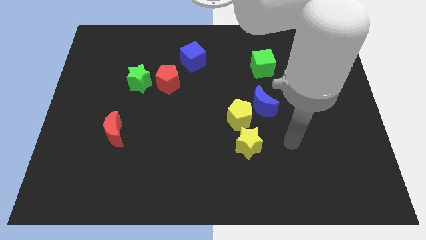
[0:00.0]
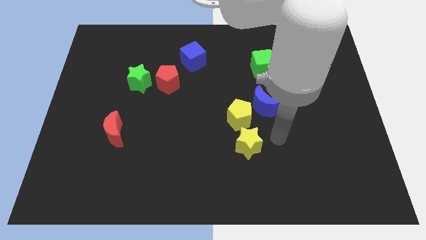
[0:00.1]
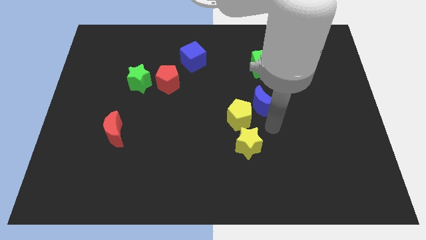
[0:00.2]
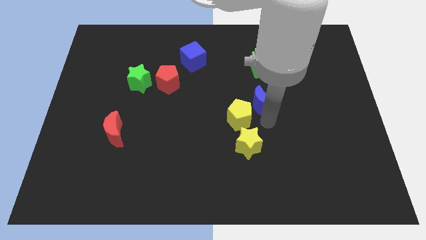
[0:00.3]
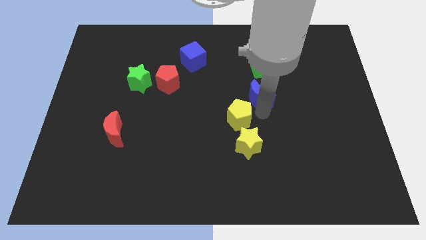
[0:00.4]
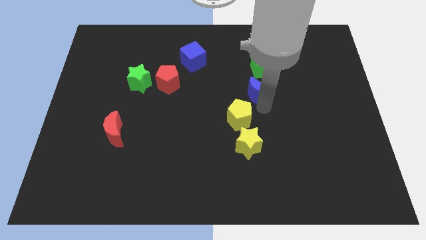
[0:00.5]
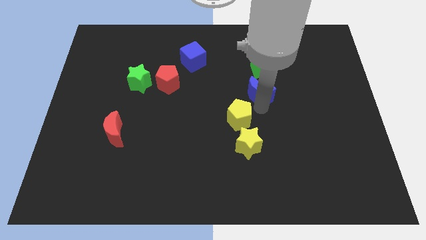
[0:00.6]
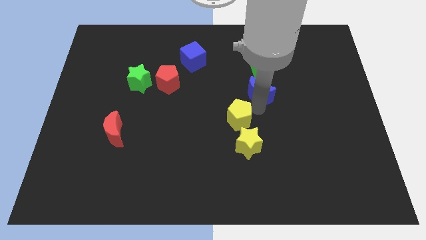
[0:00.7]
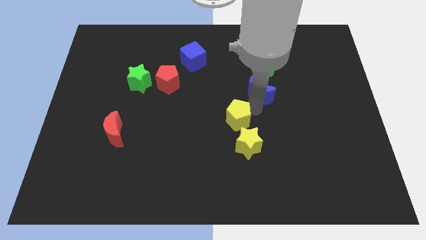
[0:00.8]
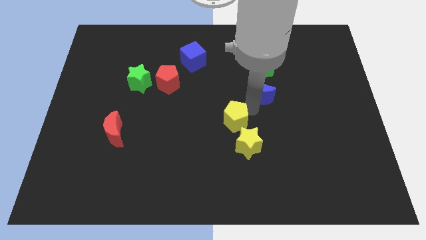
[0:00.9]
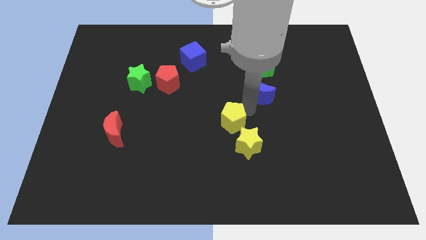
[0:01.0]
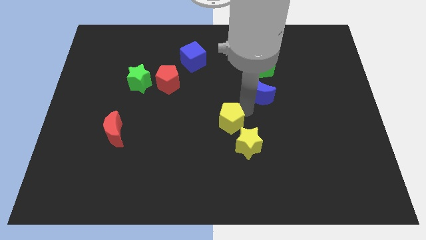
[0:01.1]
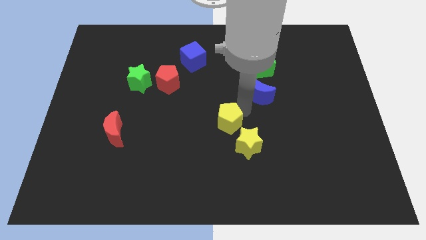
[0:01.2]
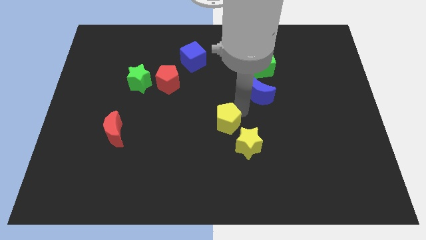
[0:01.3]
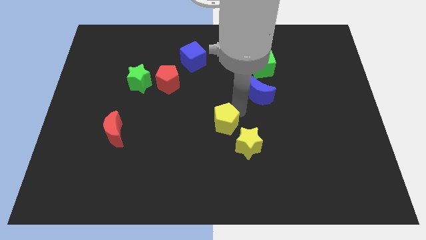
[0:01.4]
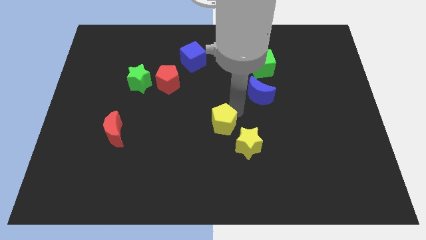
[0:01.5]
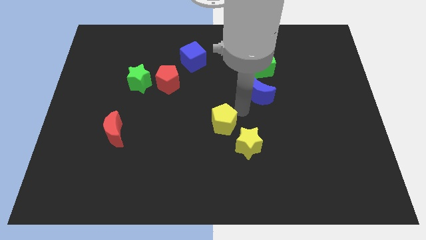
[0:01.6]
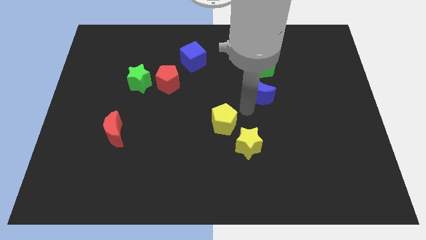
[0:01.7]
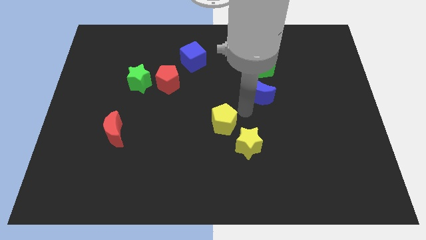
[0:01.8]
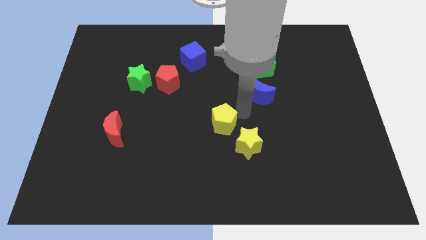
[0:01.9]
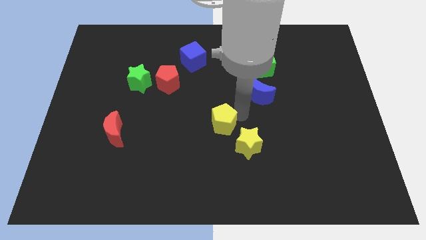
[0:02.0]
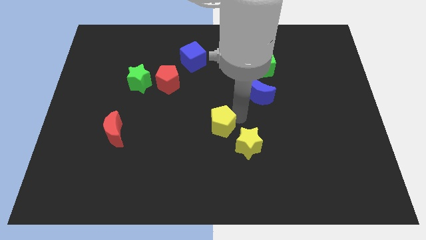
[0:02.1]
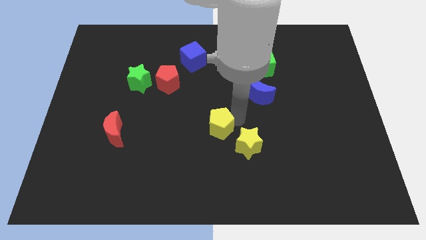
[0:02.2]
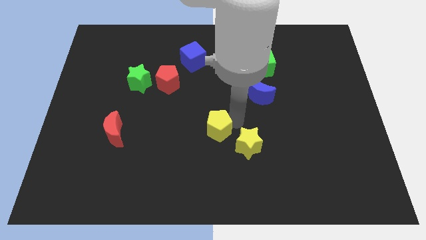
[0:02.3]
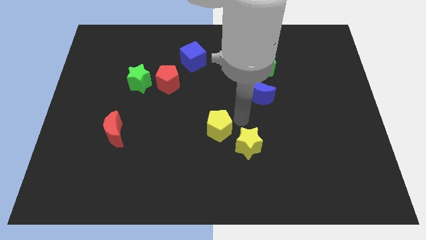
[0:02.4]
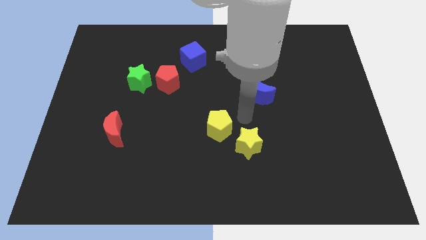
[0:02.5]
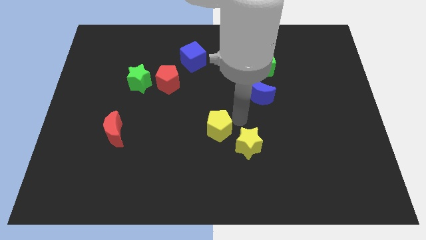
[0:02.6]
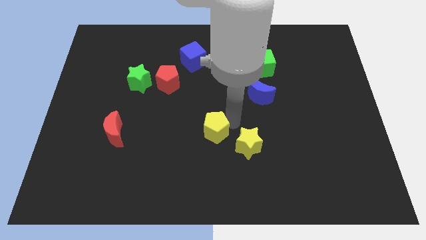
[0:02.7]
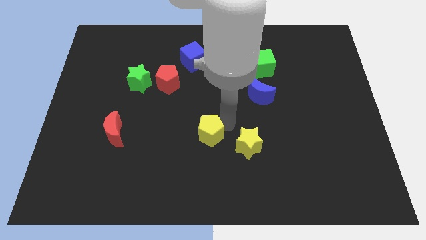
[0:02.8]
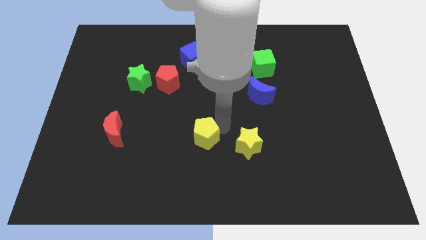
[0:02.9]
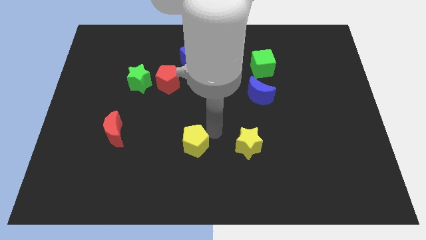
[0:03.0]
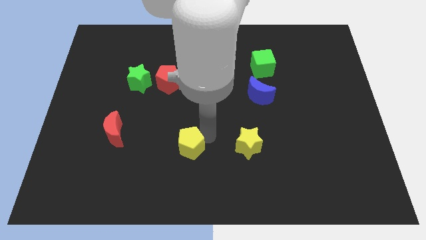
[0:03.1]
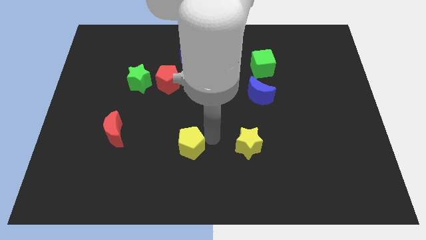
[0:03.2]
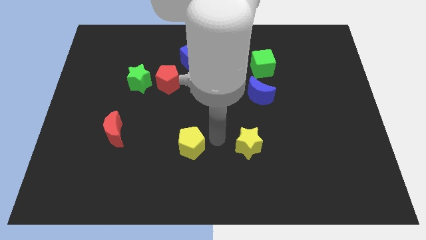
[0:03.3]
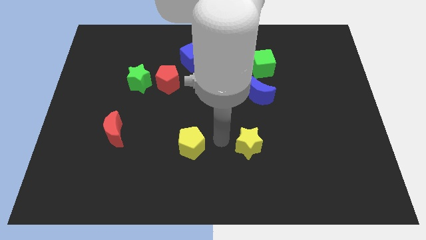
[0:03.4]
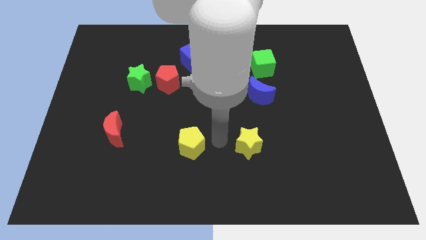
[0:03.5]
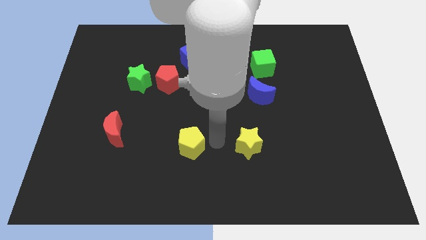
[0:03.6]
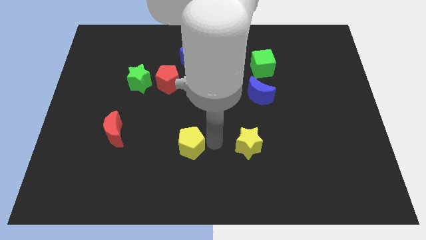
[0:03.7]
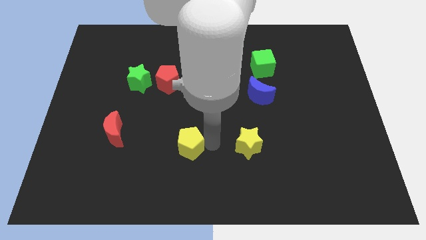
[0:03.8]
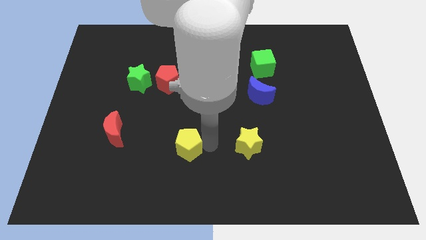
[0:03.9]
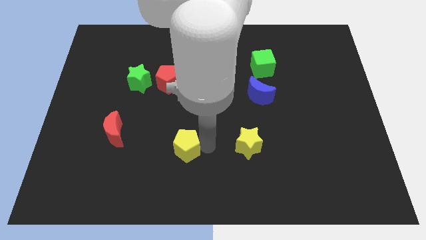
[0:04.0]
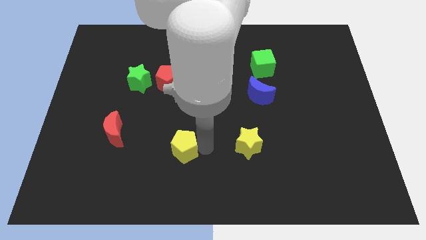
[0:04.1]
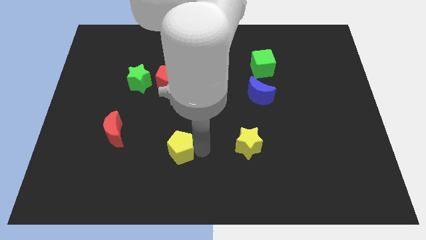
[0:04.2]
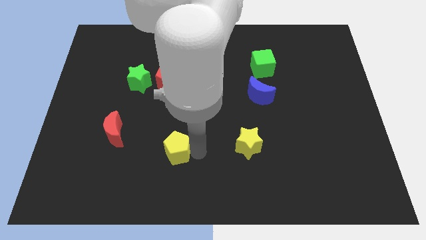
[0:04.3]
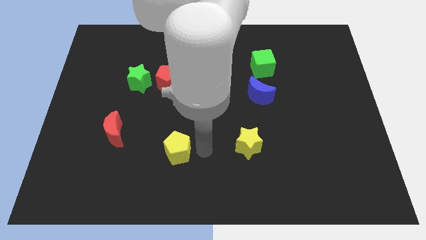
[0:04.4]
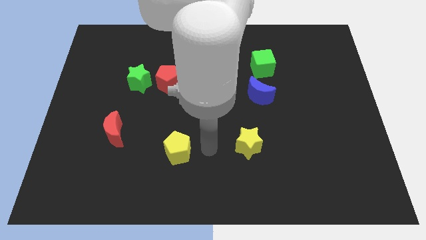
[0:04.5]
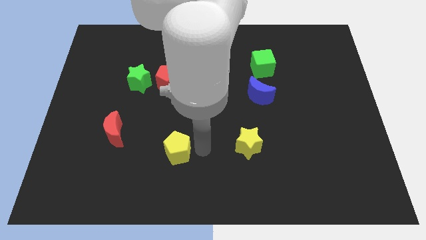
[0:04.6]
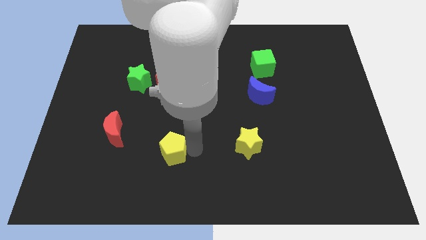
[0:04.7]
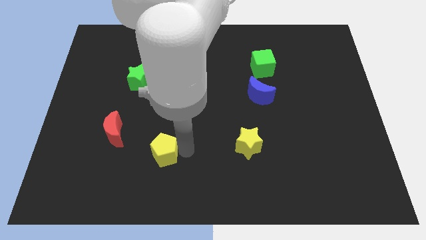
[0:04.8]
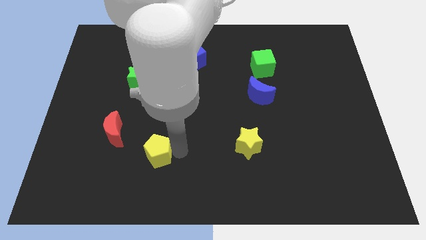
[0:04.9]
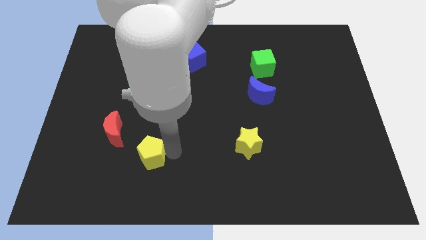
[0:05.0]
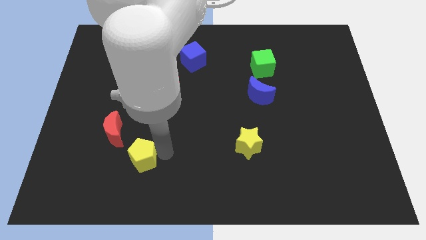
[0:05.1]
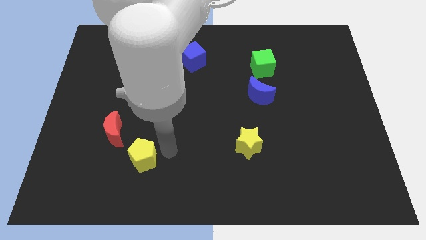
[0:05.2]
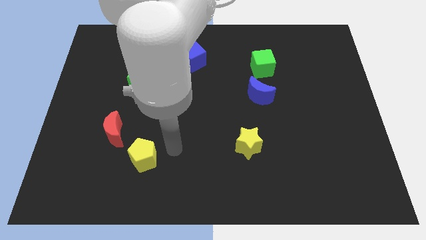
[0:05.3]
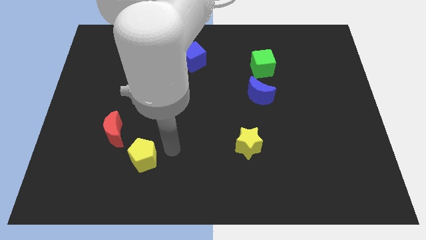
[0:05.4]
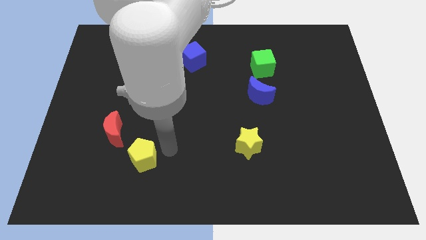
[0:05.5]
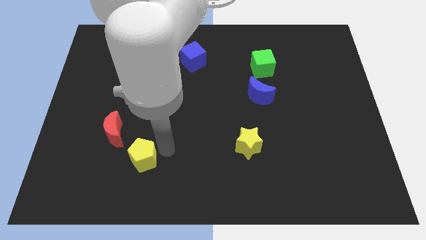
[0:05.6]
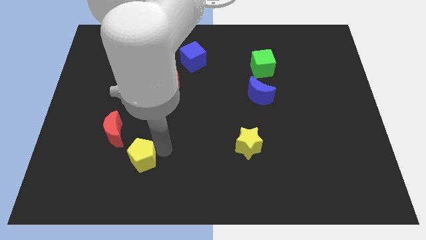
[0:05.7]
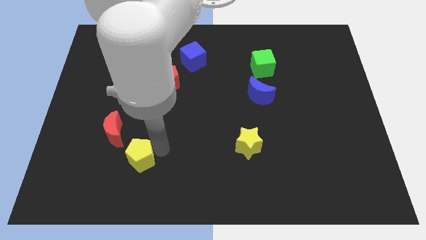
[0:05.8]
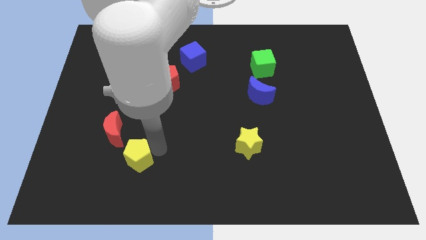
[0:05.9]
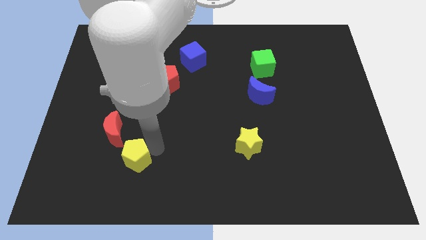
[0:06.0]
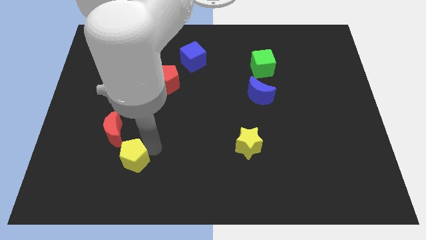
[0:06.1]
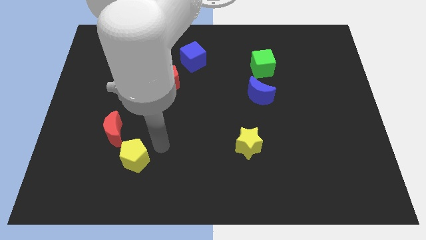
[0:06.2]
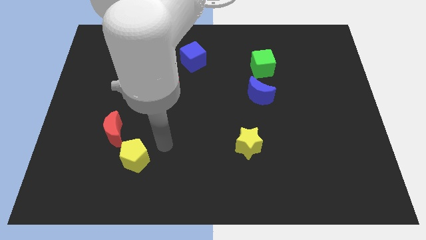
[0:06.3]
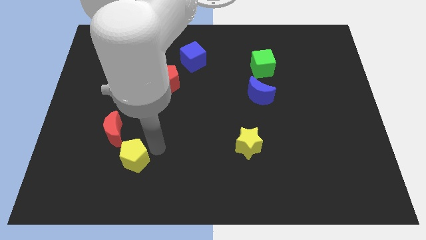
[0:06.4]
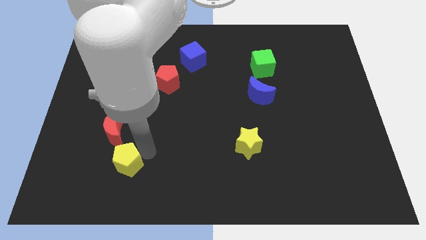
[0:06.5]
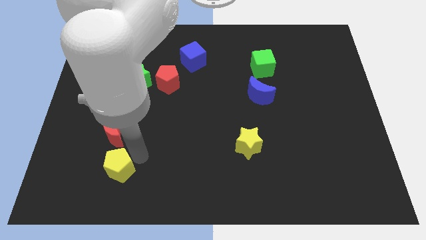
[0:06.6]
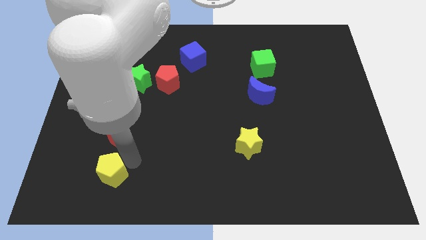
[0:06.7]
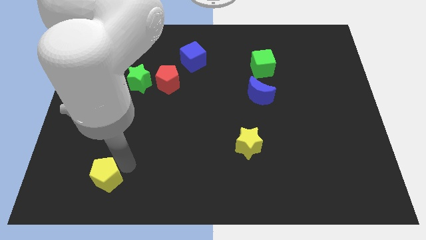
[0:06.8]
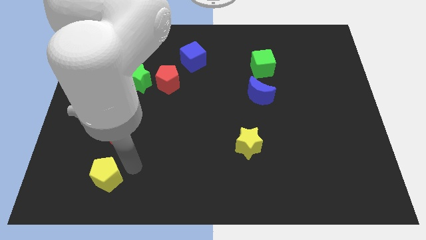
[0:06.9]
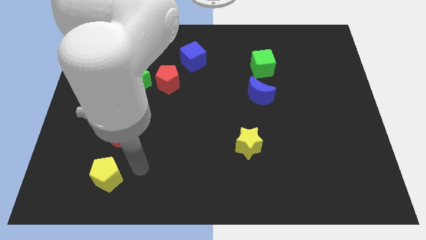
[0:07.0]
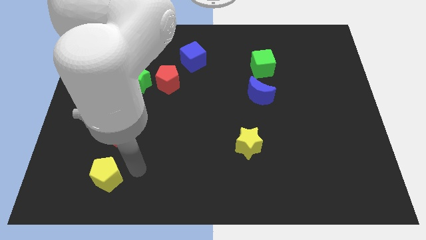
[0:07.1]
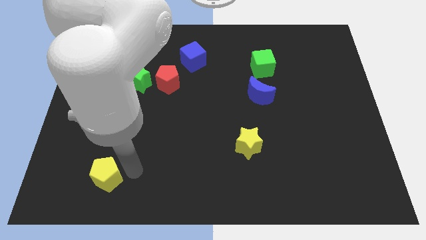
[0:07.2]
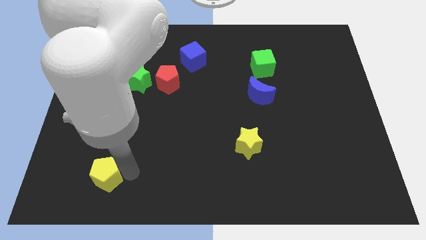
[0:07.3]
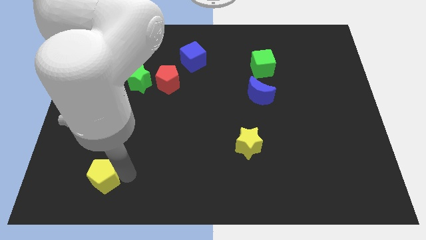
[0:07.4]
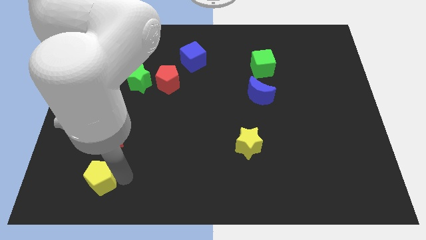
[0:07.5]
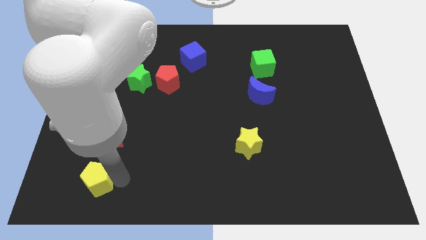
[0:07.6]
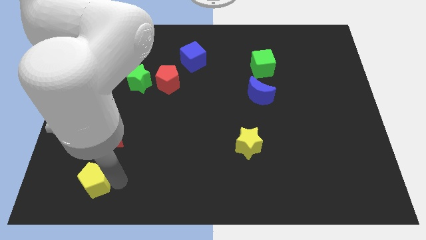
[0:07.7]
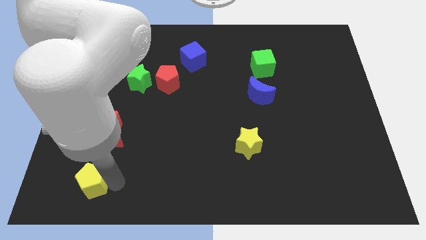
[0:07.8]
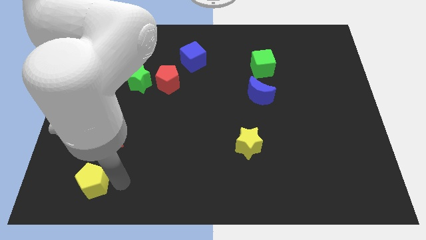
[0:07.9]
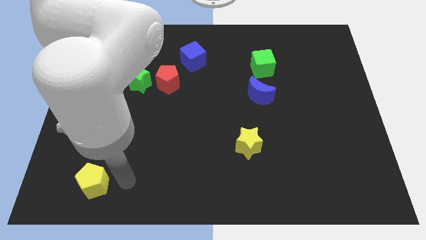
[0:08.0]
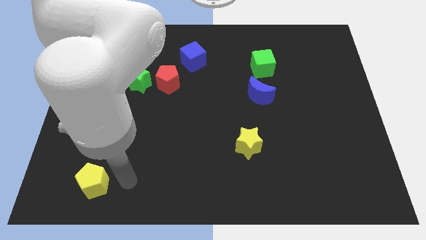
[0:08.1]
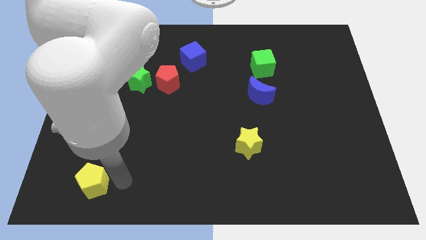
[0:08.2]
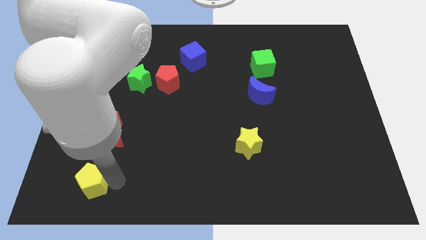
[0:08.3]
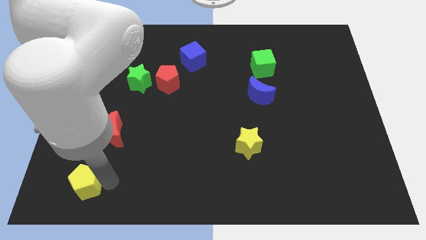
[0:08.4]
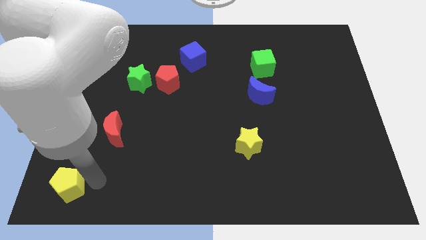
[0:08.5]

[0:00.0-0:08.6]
move the yellow pentagon to the bottom left corner
